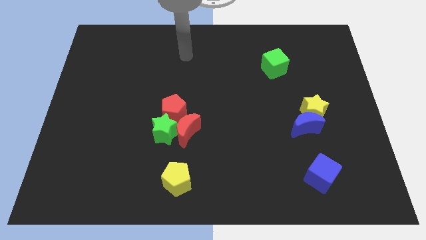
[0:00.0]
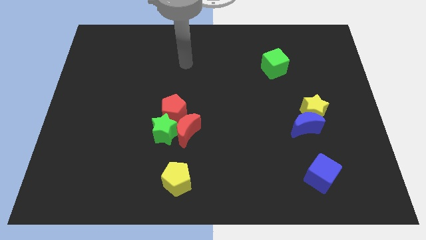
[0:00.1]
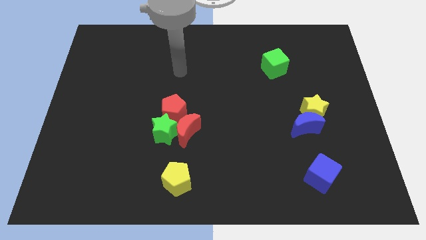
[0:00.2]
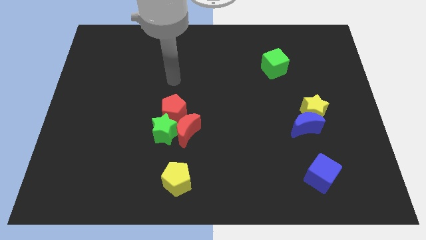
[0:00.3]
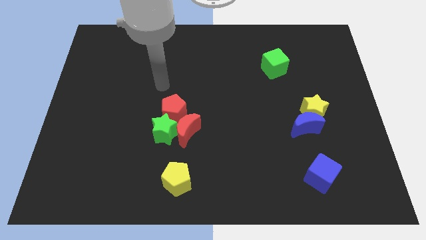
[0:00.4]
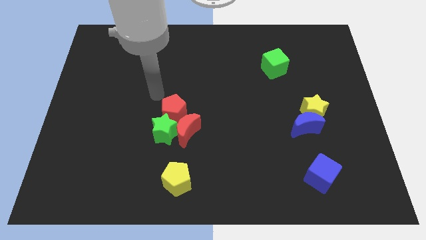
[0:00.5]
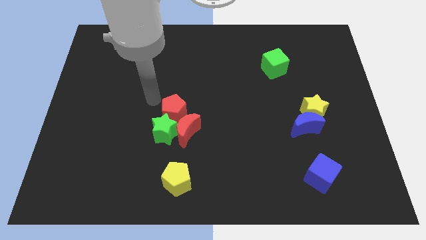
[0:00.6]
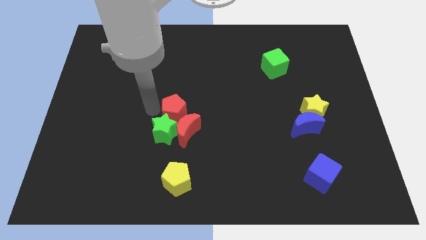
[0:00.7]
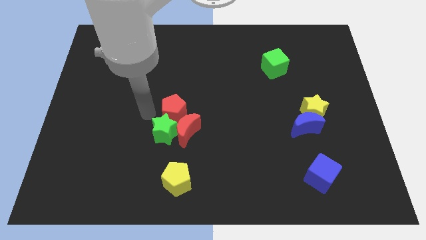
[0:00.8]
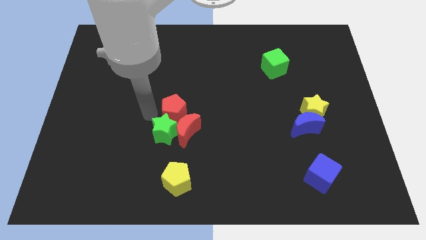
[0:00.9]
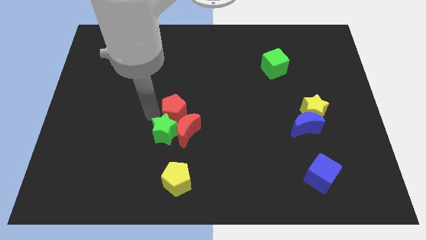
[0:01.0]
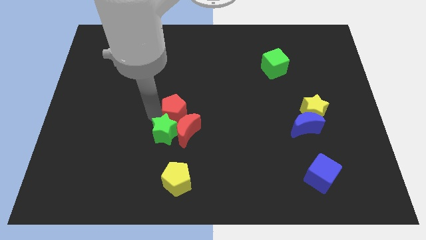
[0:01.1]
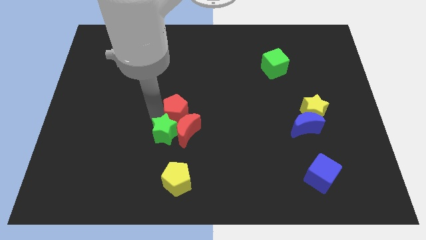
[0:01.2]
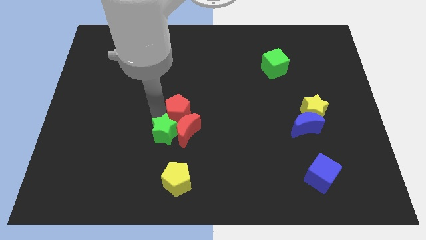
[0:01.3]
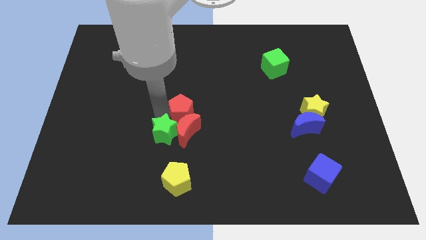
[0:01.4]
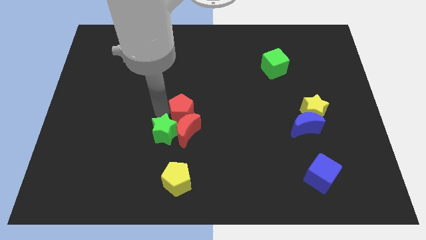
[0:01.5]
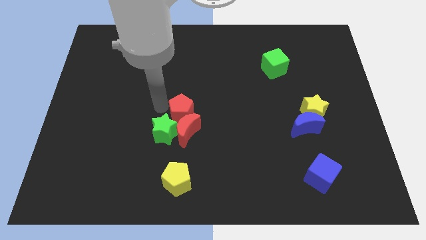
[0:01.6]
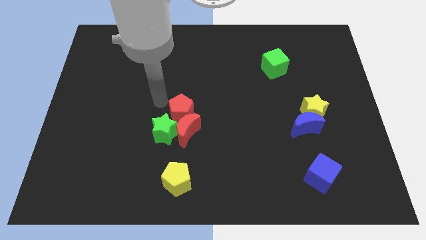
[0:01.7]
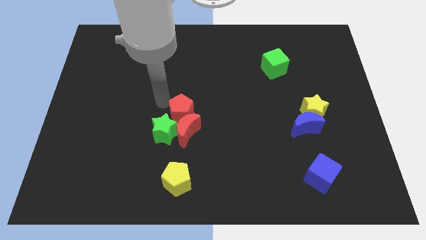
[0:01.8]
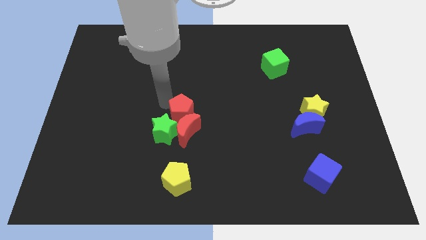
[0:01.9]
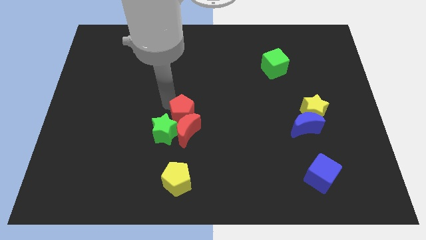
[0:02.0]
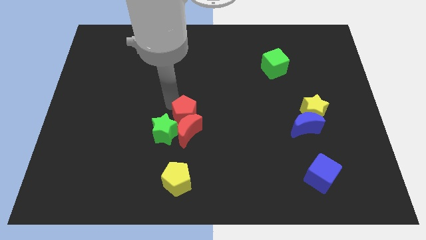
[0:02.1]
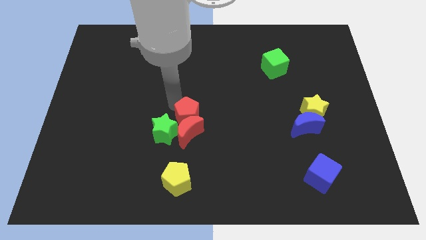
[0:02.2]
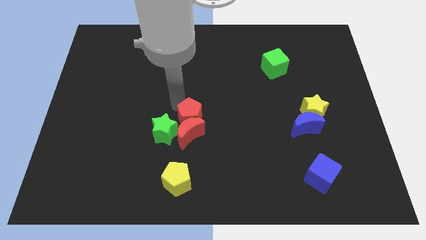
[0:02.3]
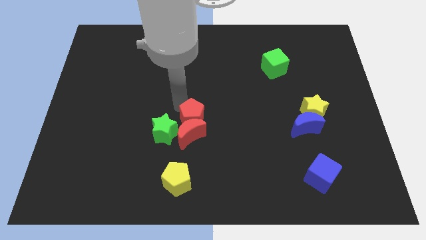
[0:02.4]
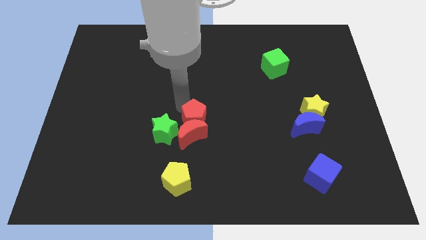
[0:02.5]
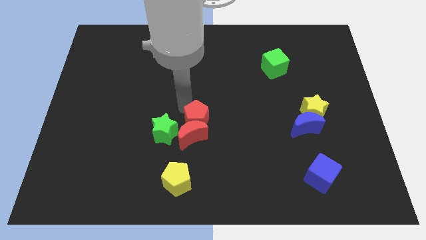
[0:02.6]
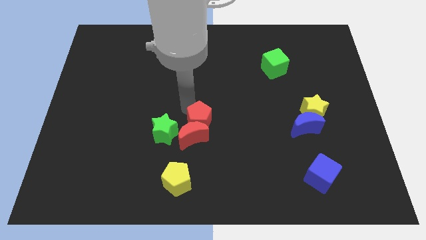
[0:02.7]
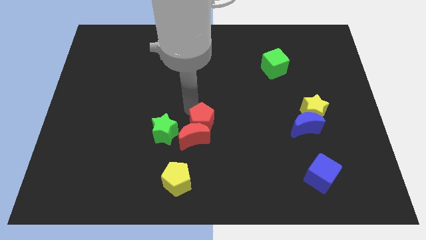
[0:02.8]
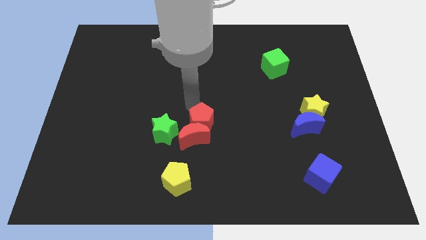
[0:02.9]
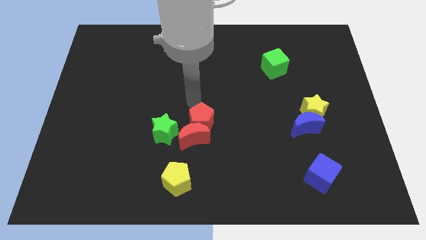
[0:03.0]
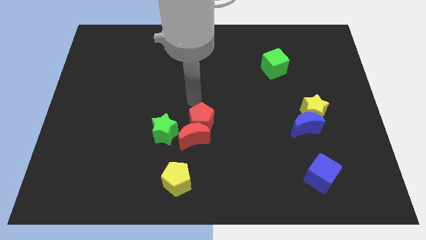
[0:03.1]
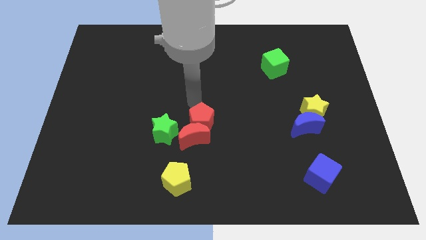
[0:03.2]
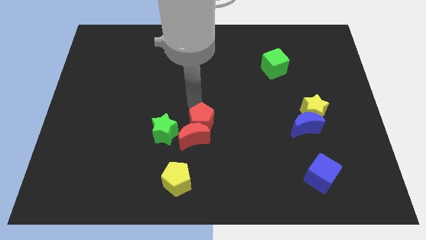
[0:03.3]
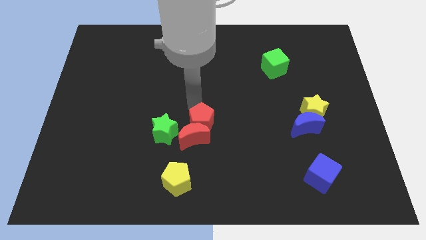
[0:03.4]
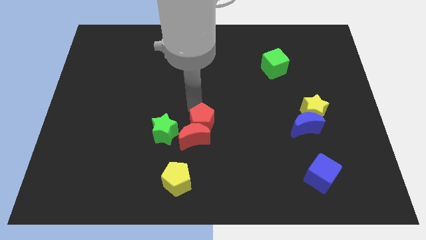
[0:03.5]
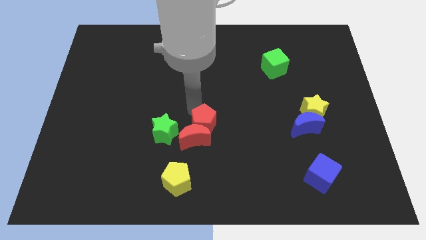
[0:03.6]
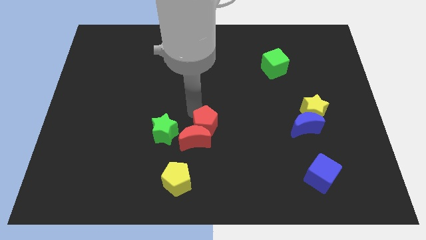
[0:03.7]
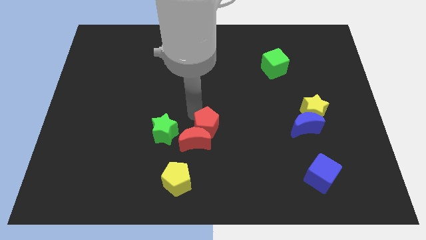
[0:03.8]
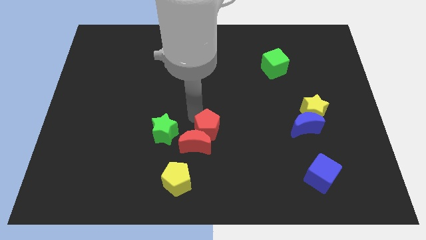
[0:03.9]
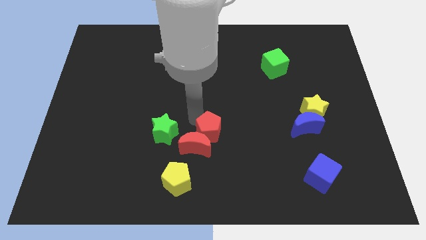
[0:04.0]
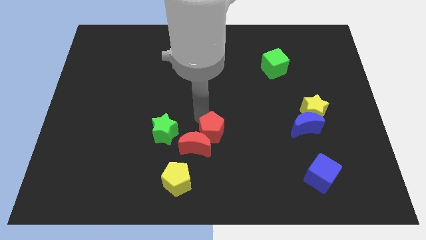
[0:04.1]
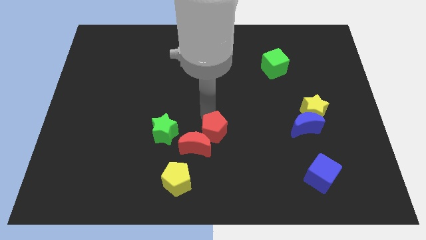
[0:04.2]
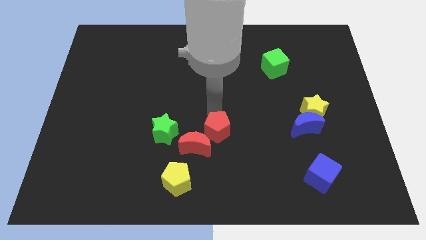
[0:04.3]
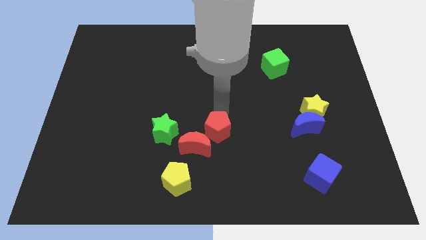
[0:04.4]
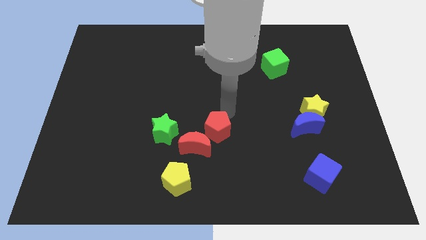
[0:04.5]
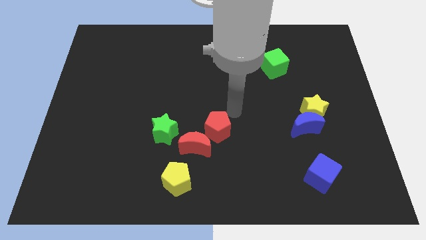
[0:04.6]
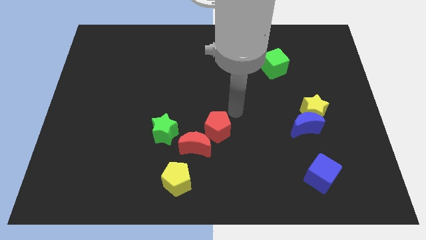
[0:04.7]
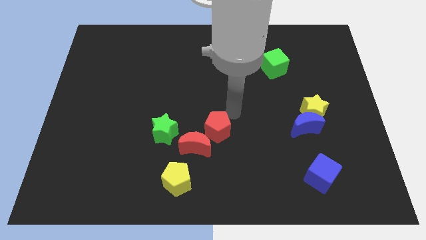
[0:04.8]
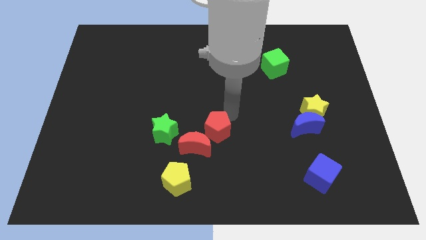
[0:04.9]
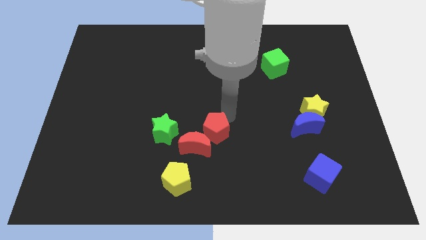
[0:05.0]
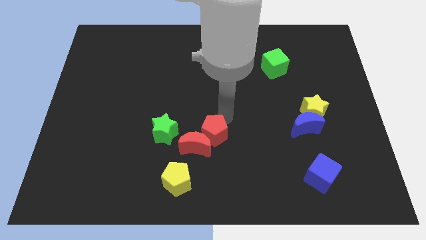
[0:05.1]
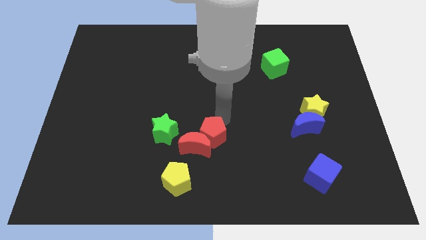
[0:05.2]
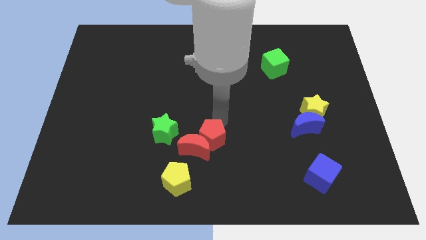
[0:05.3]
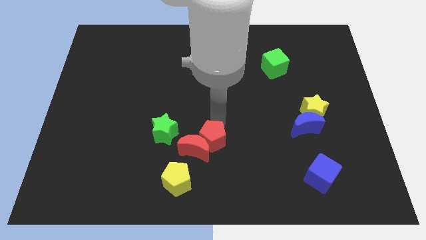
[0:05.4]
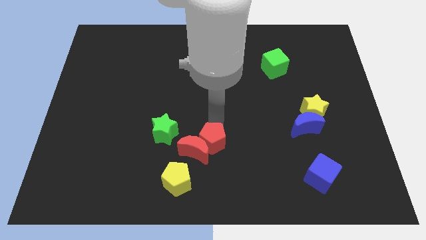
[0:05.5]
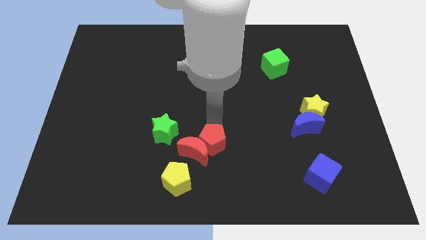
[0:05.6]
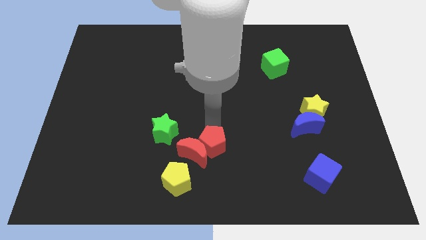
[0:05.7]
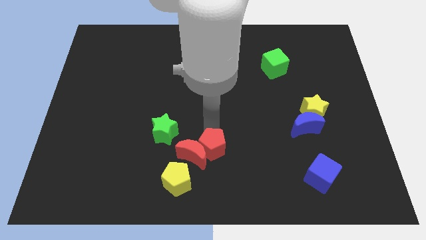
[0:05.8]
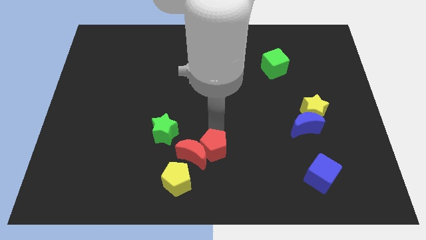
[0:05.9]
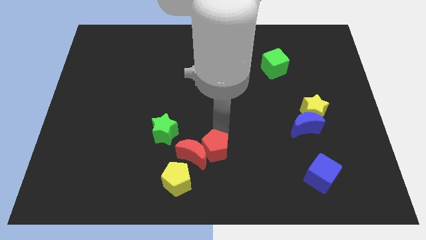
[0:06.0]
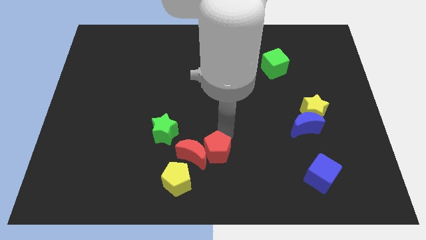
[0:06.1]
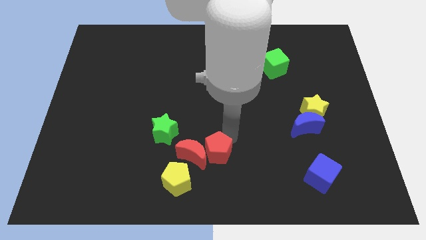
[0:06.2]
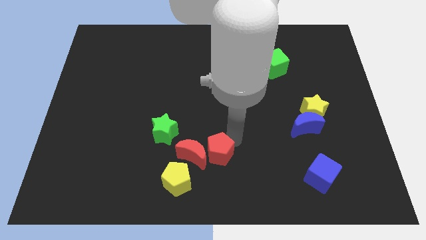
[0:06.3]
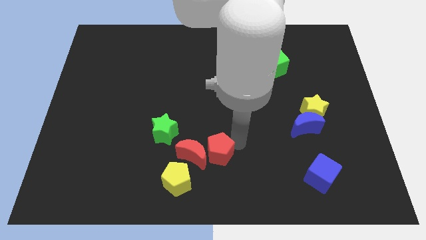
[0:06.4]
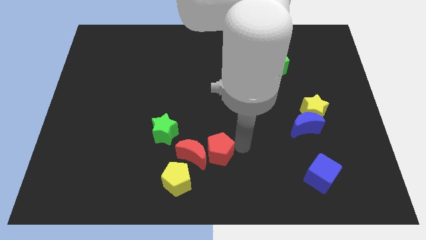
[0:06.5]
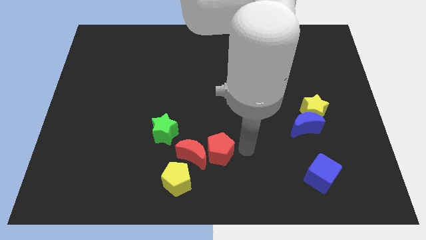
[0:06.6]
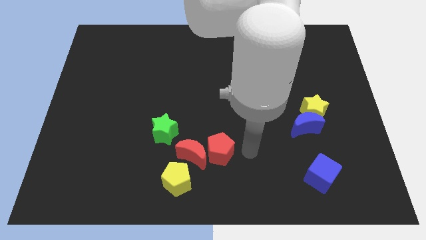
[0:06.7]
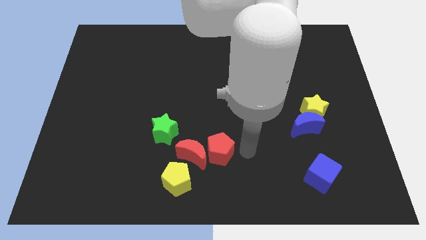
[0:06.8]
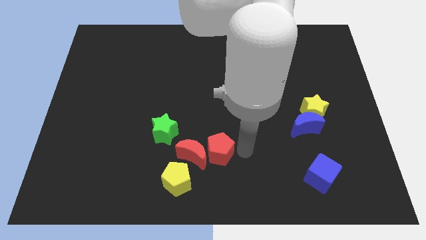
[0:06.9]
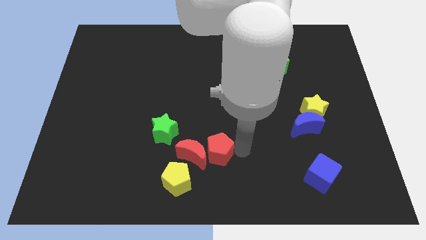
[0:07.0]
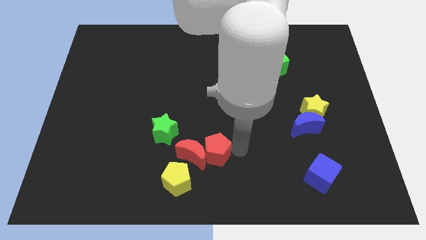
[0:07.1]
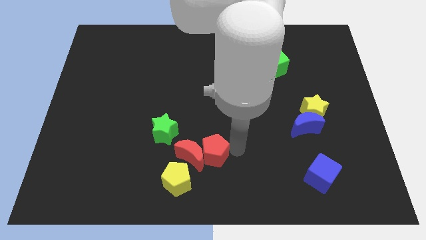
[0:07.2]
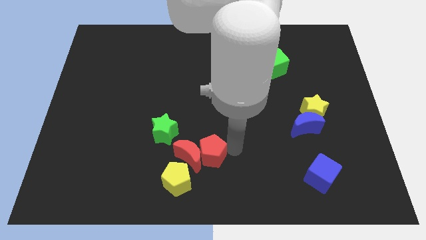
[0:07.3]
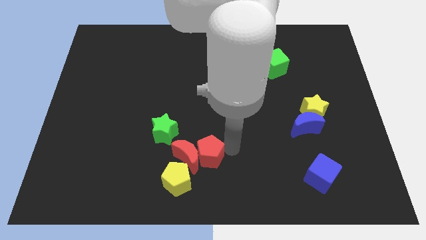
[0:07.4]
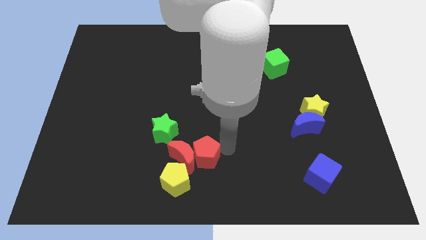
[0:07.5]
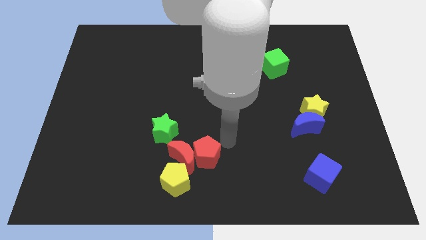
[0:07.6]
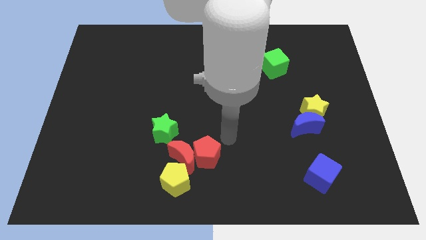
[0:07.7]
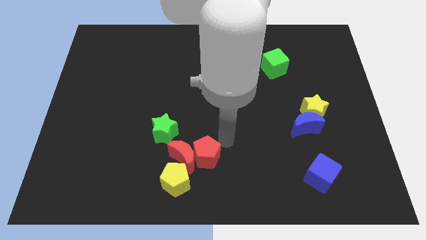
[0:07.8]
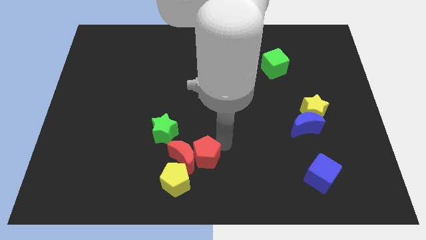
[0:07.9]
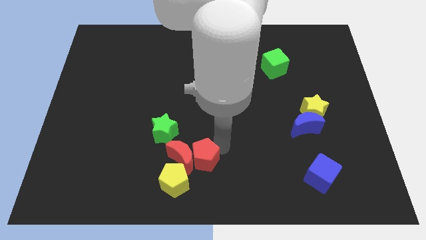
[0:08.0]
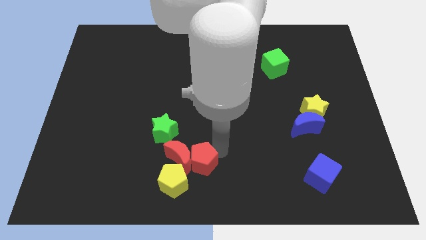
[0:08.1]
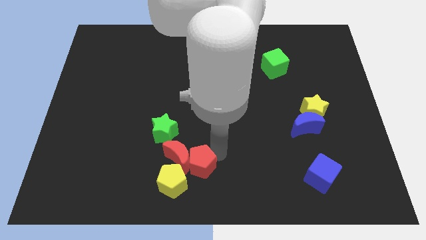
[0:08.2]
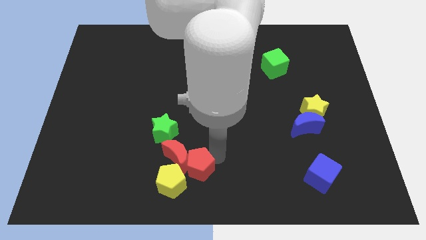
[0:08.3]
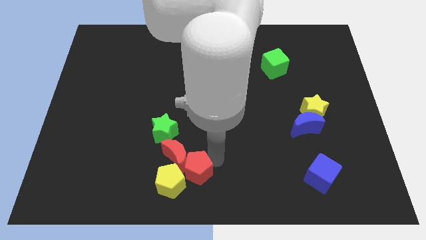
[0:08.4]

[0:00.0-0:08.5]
put the red pentagon to the yellow pentagon
